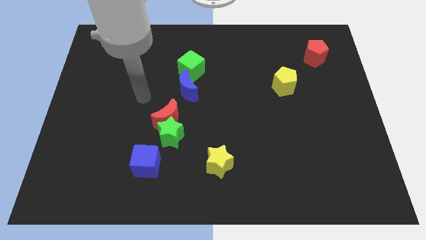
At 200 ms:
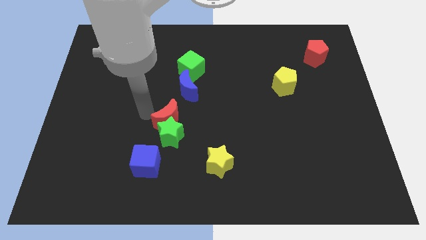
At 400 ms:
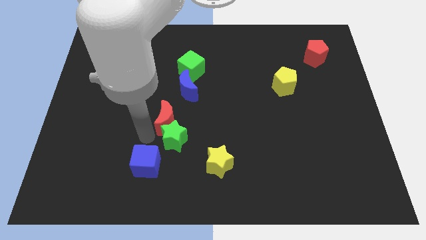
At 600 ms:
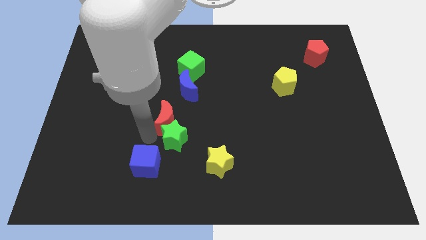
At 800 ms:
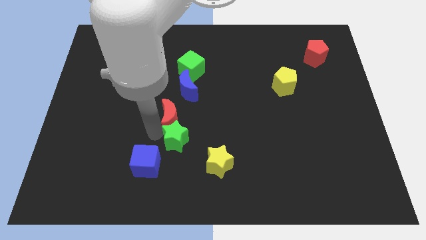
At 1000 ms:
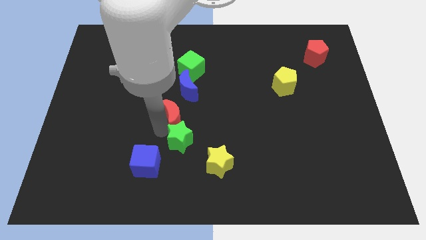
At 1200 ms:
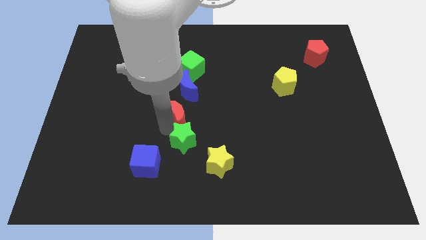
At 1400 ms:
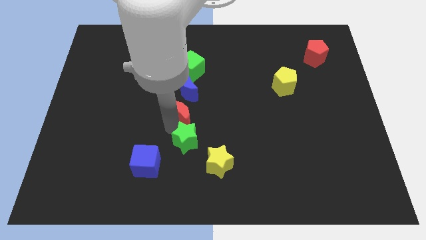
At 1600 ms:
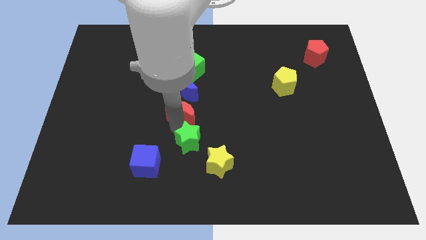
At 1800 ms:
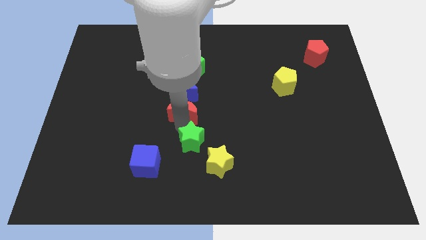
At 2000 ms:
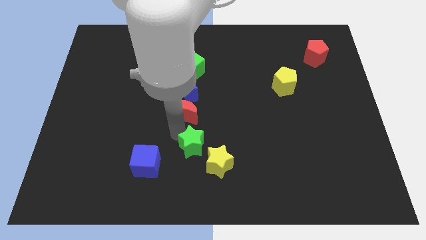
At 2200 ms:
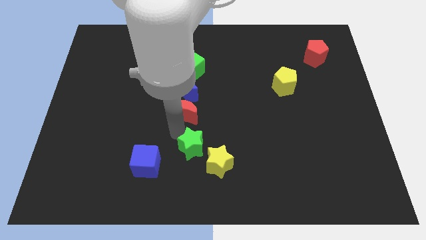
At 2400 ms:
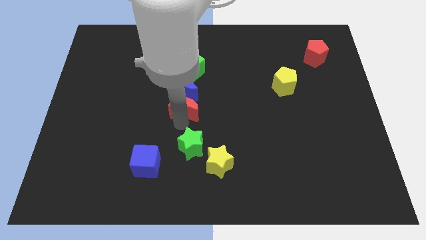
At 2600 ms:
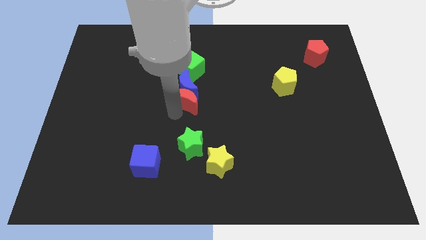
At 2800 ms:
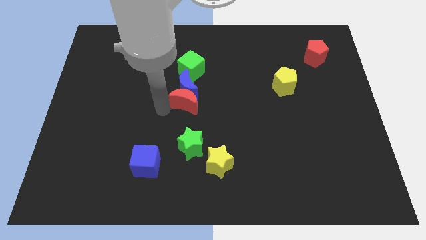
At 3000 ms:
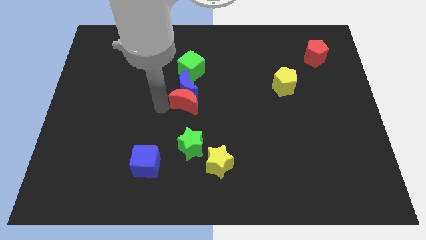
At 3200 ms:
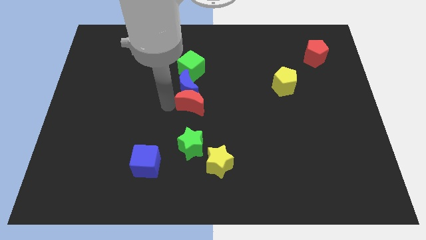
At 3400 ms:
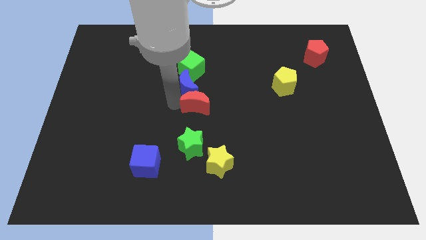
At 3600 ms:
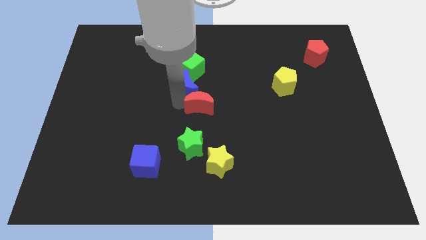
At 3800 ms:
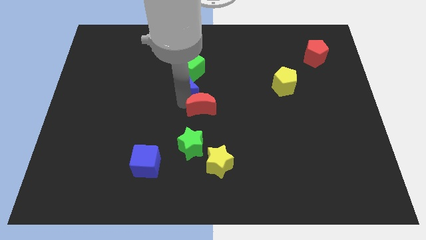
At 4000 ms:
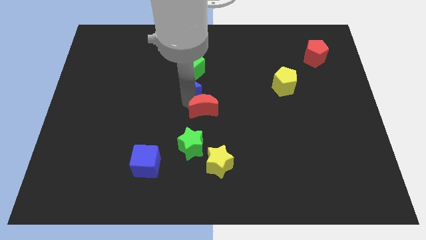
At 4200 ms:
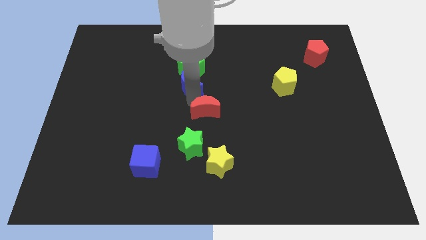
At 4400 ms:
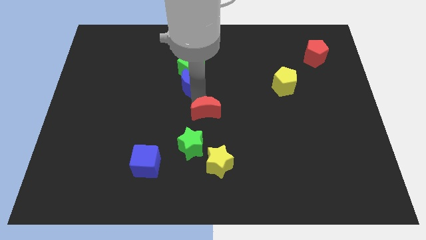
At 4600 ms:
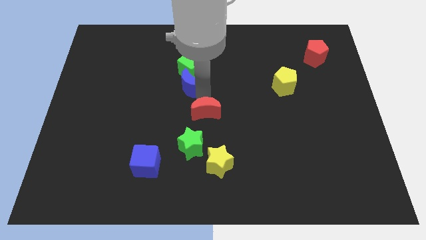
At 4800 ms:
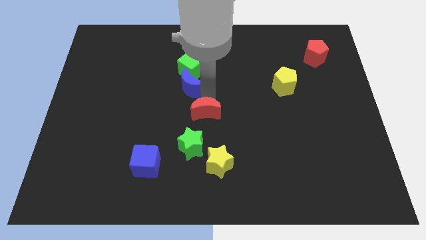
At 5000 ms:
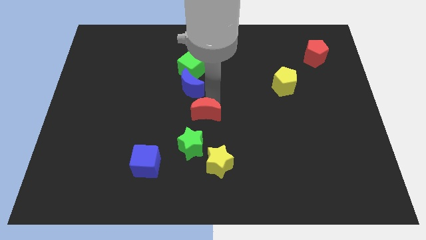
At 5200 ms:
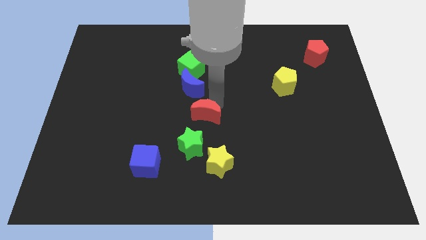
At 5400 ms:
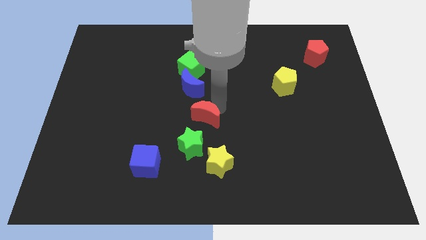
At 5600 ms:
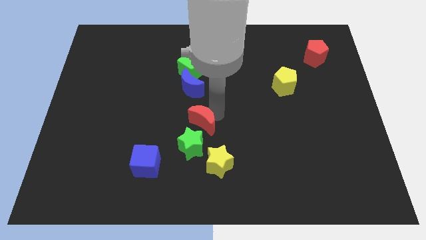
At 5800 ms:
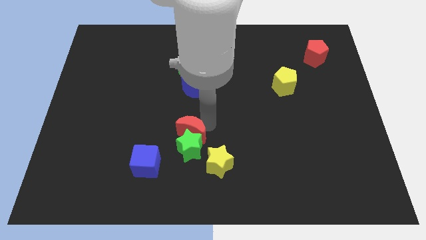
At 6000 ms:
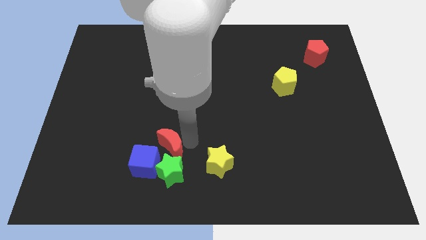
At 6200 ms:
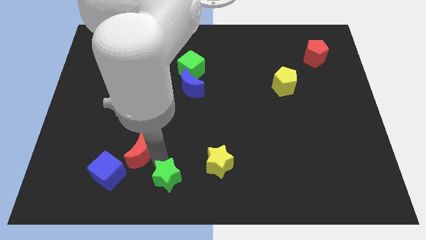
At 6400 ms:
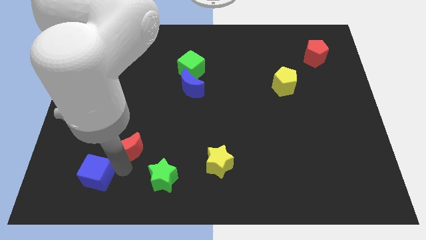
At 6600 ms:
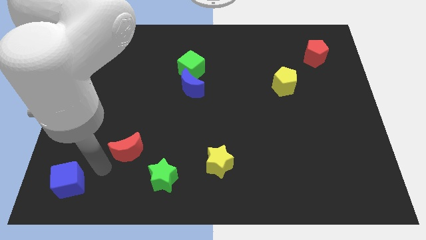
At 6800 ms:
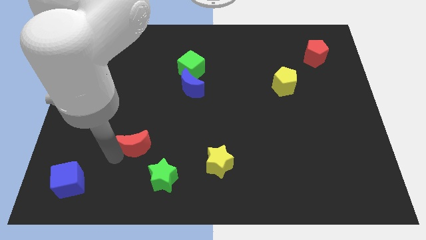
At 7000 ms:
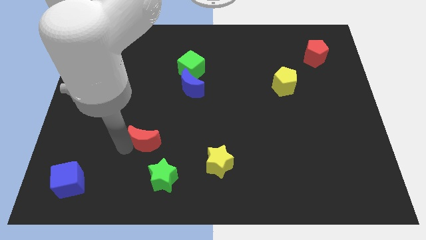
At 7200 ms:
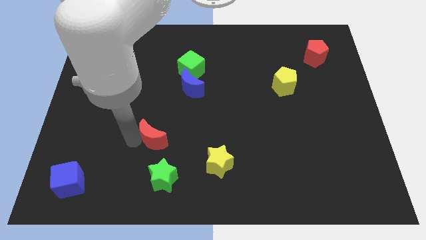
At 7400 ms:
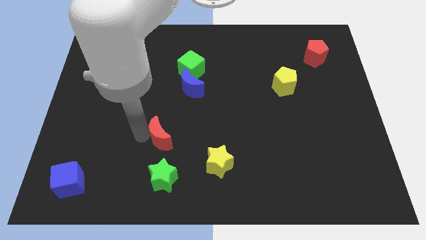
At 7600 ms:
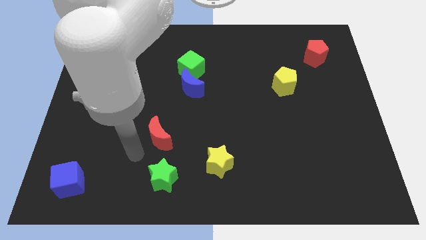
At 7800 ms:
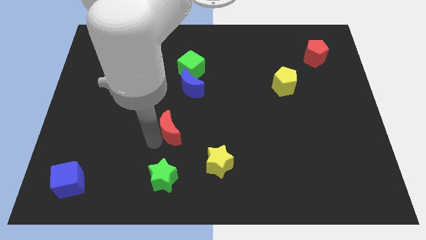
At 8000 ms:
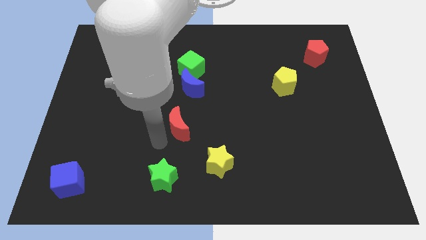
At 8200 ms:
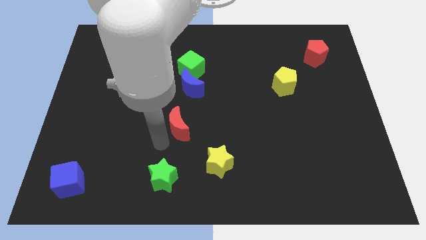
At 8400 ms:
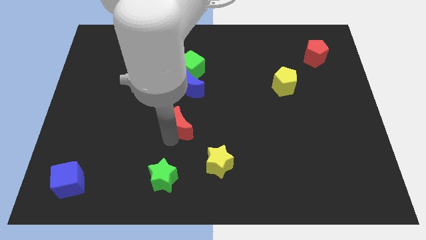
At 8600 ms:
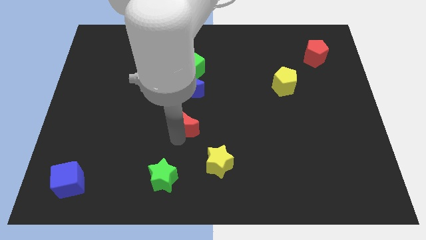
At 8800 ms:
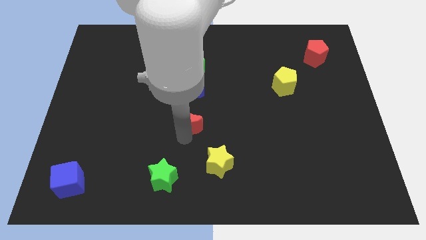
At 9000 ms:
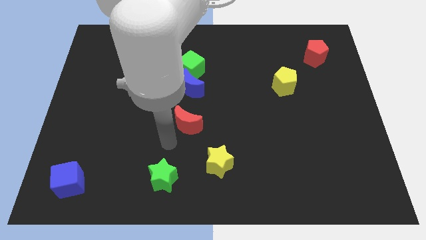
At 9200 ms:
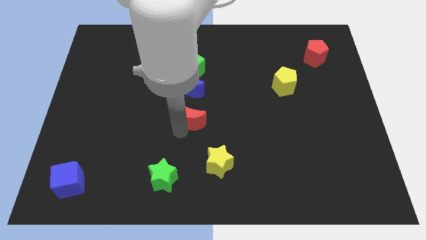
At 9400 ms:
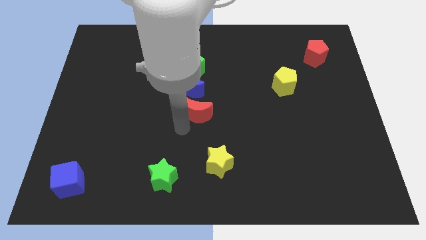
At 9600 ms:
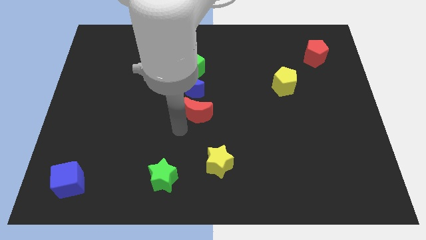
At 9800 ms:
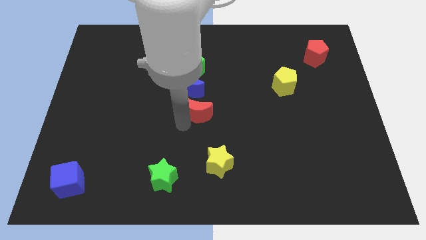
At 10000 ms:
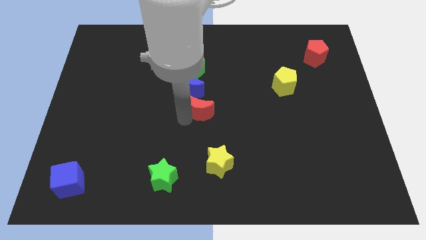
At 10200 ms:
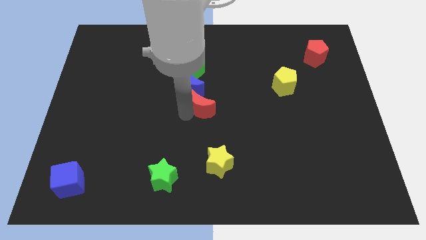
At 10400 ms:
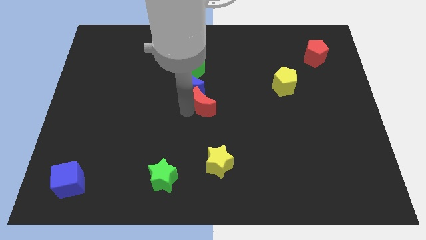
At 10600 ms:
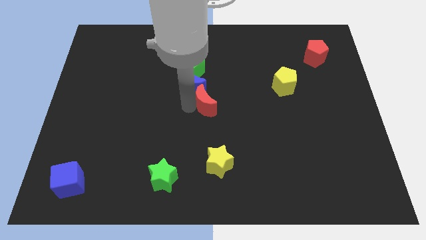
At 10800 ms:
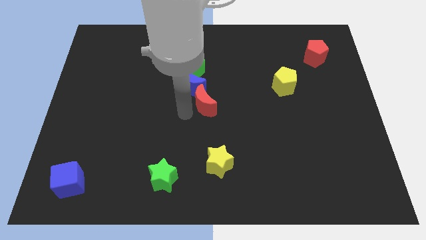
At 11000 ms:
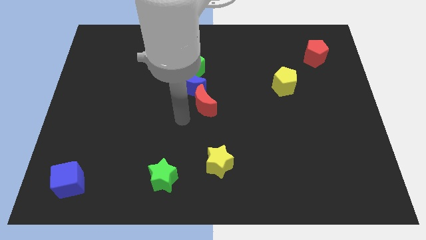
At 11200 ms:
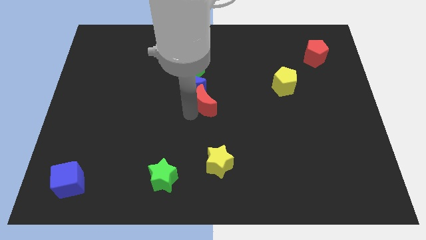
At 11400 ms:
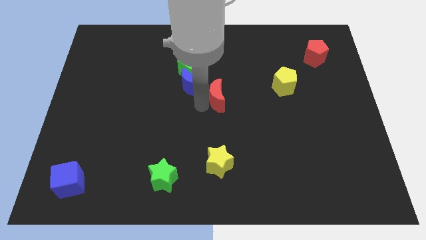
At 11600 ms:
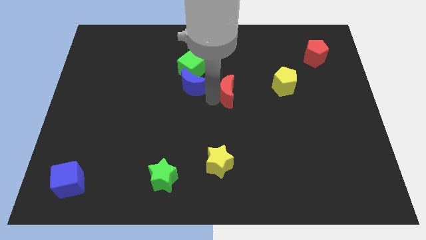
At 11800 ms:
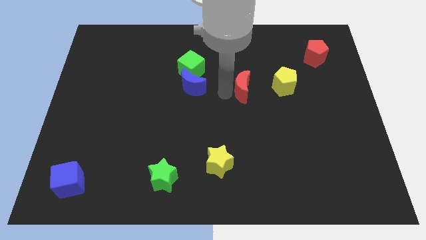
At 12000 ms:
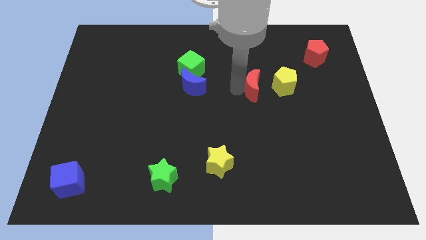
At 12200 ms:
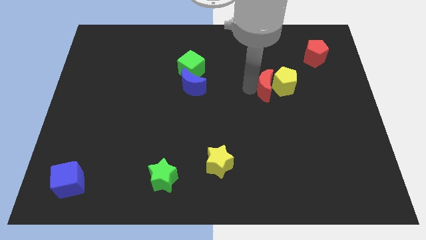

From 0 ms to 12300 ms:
push the red moon to the yellow pentagon

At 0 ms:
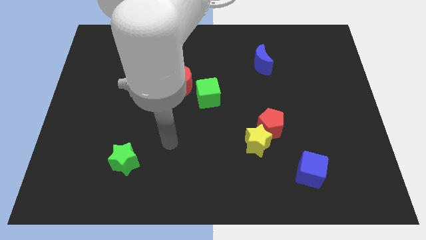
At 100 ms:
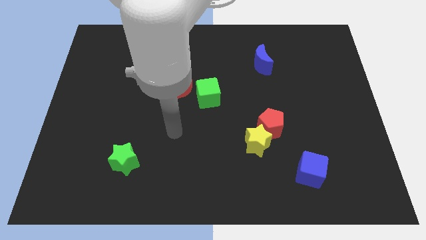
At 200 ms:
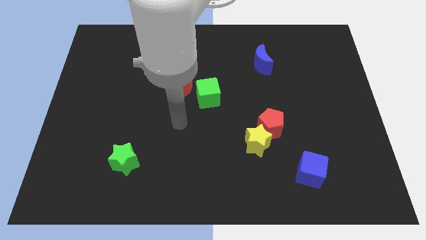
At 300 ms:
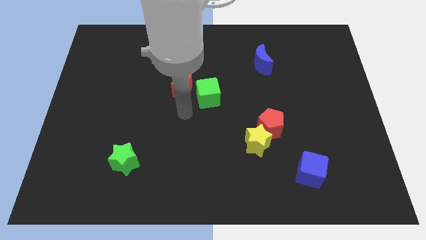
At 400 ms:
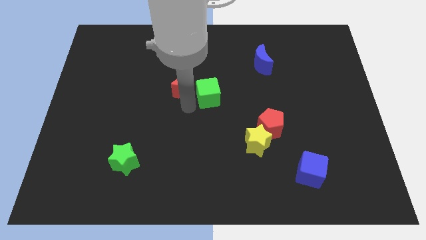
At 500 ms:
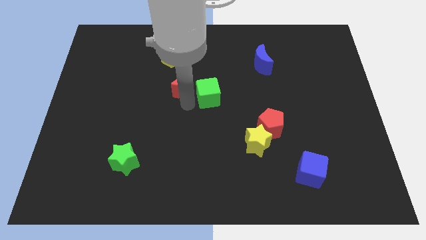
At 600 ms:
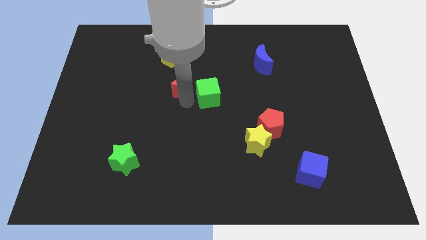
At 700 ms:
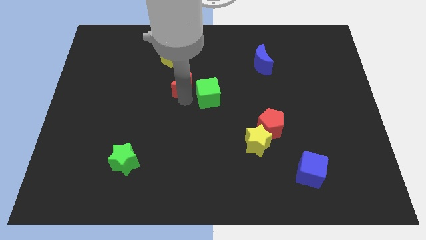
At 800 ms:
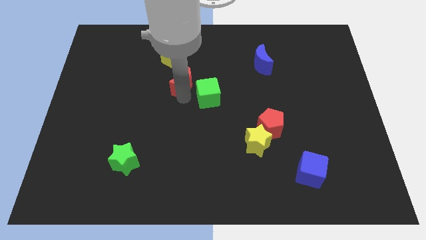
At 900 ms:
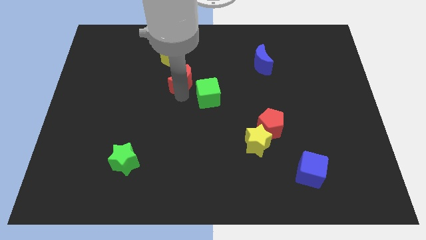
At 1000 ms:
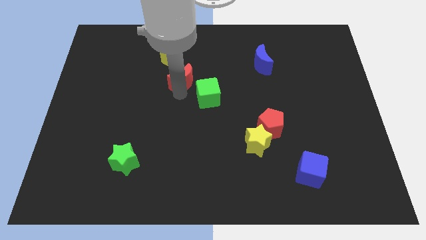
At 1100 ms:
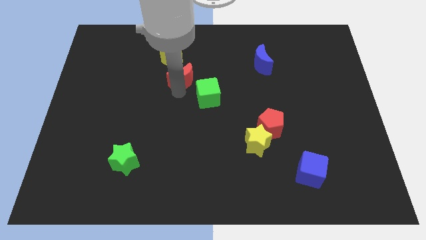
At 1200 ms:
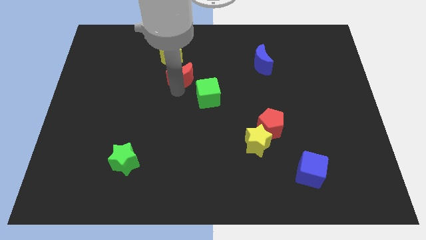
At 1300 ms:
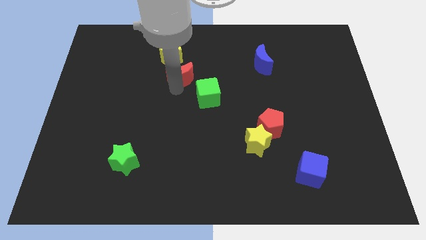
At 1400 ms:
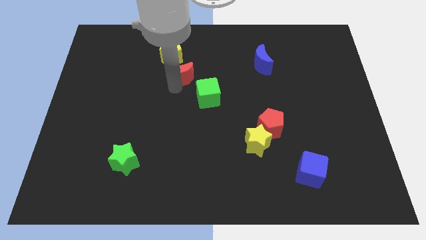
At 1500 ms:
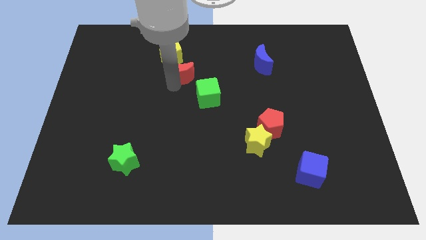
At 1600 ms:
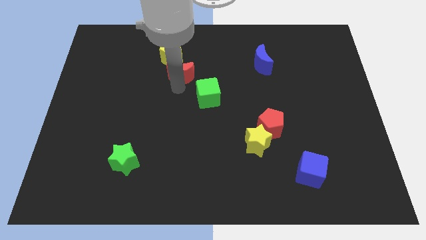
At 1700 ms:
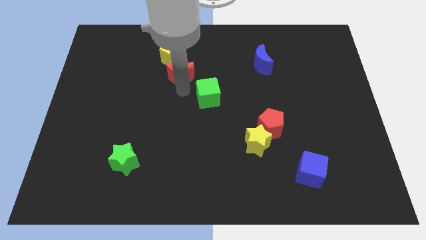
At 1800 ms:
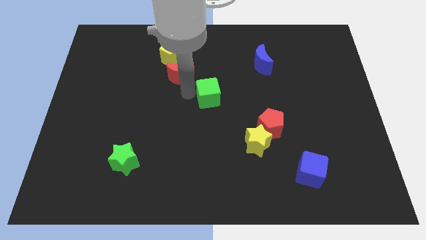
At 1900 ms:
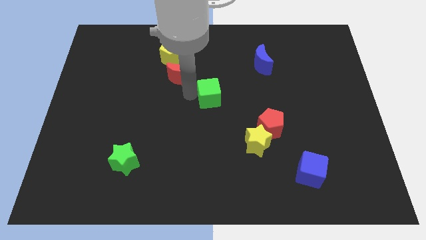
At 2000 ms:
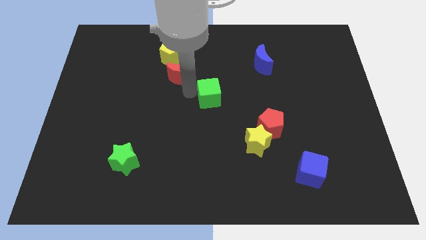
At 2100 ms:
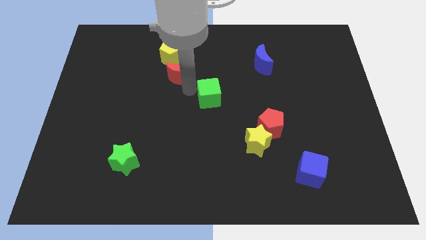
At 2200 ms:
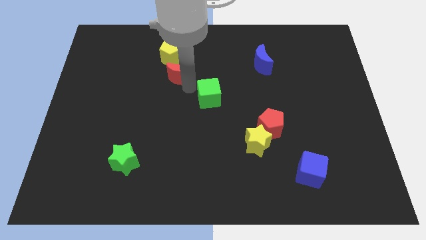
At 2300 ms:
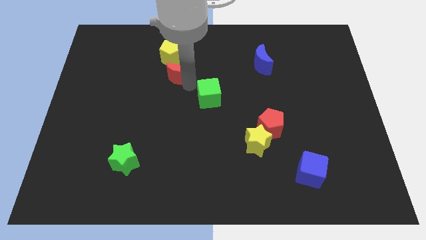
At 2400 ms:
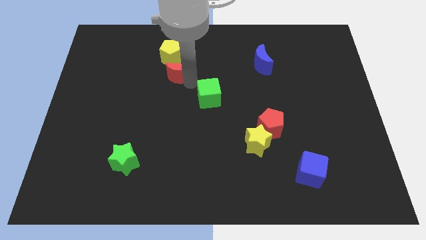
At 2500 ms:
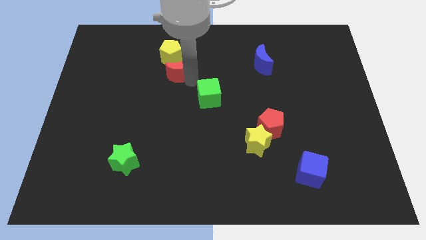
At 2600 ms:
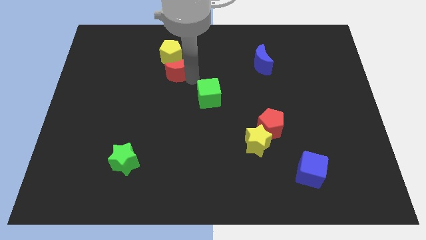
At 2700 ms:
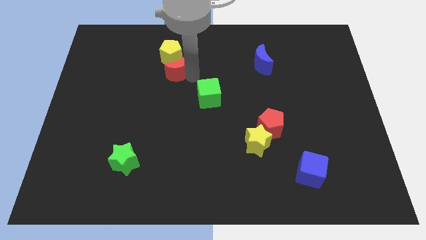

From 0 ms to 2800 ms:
push the red moon close to the yellow pentagon
